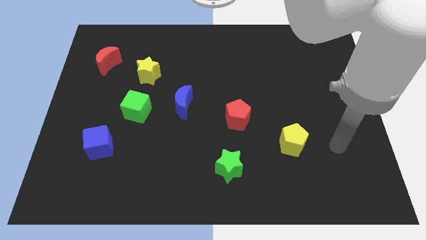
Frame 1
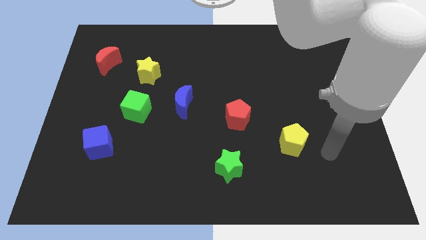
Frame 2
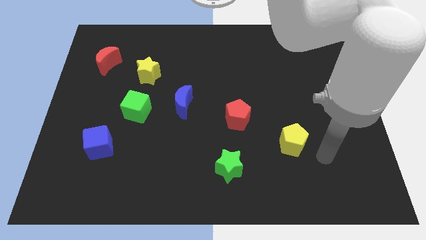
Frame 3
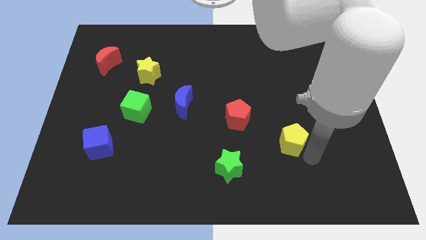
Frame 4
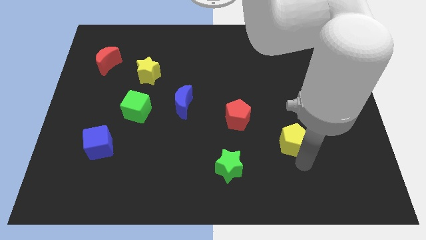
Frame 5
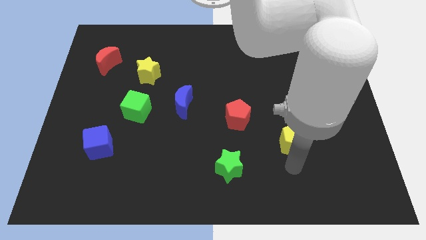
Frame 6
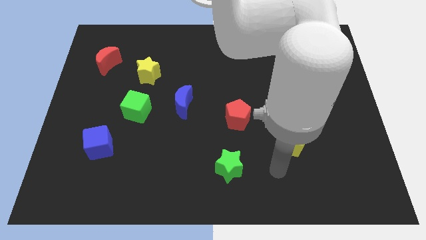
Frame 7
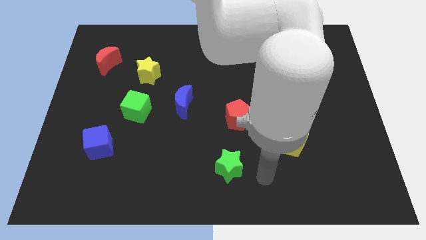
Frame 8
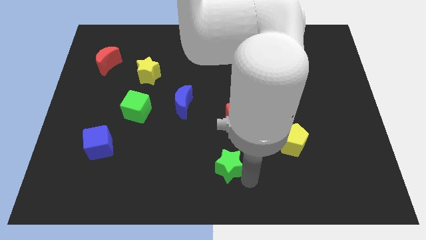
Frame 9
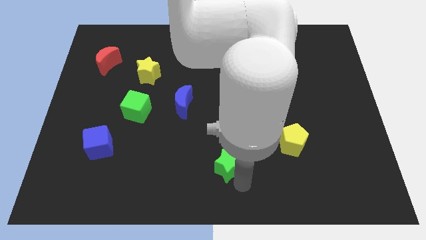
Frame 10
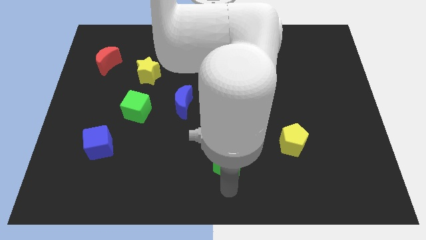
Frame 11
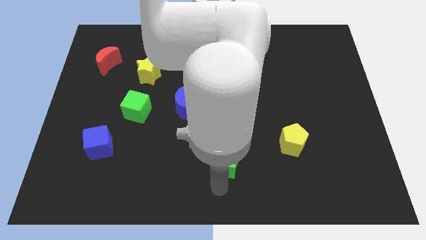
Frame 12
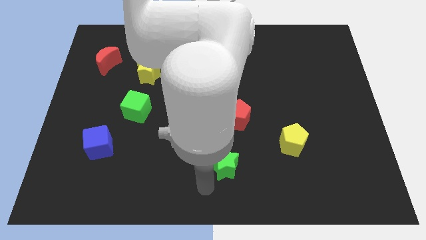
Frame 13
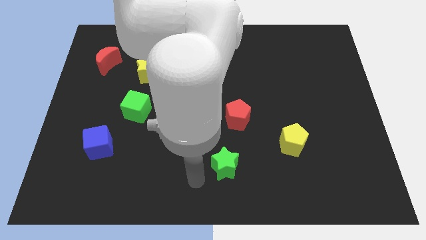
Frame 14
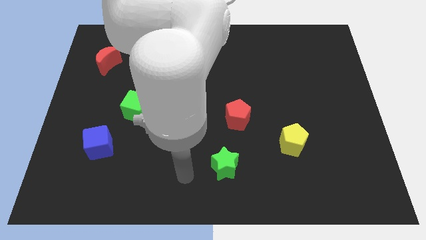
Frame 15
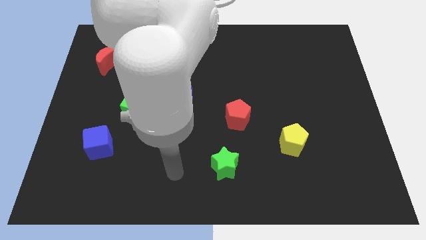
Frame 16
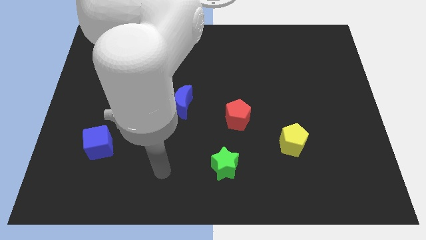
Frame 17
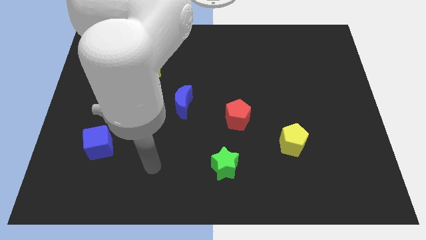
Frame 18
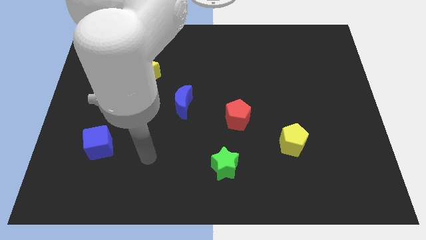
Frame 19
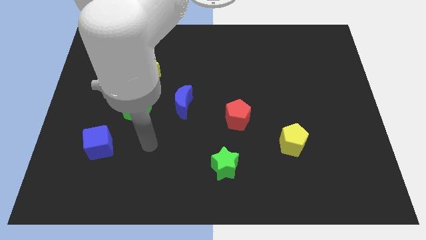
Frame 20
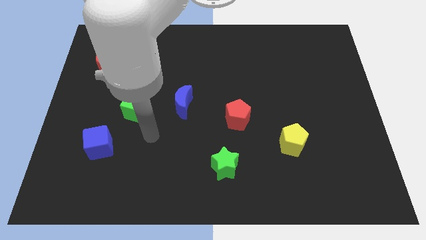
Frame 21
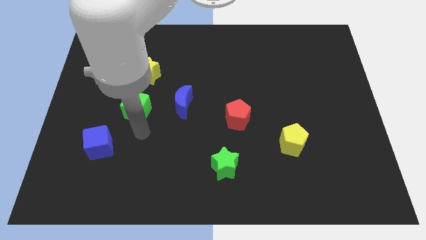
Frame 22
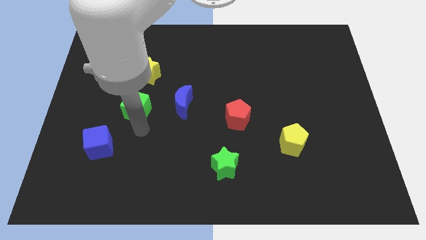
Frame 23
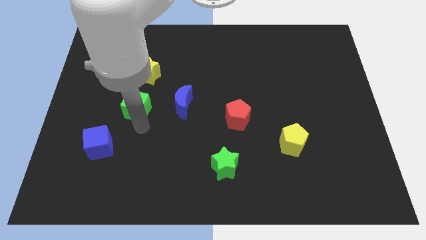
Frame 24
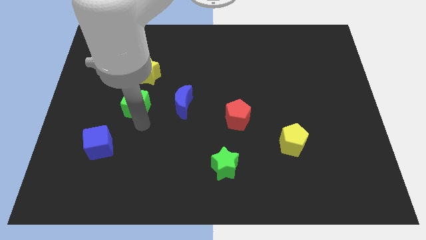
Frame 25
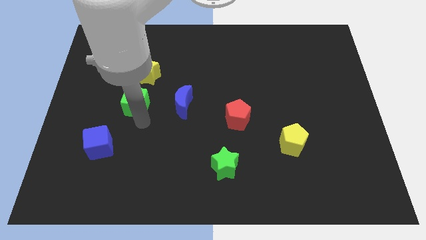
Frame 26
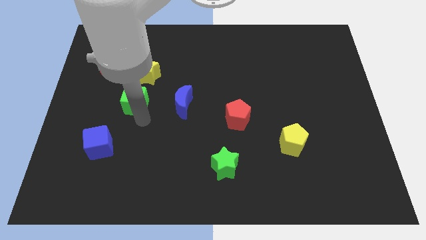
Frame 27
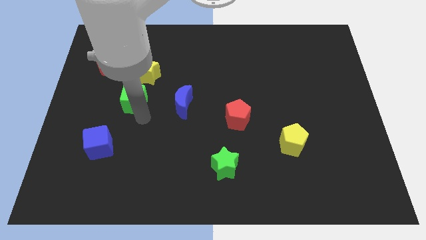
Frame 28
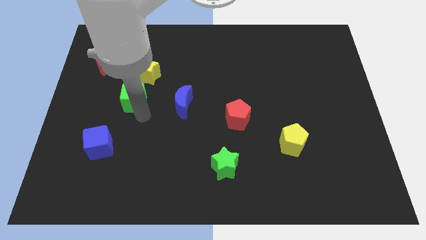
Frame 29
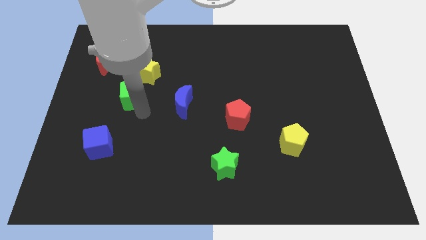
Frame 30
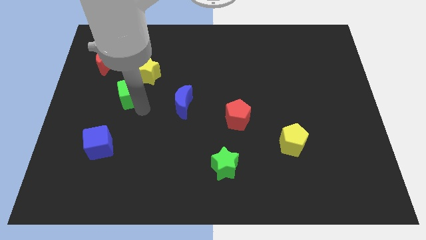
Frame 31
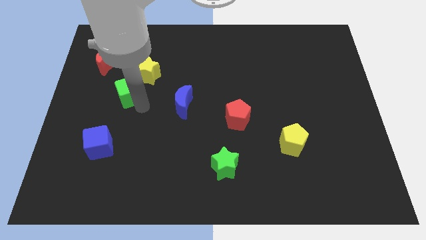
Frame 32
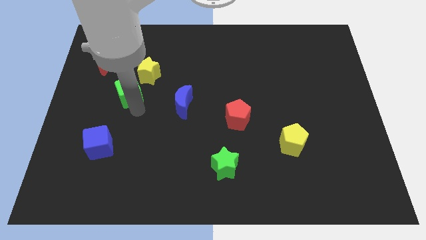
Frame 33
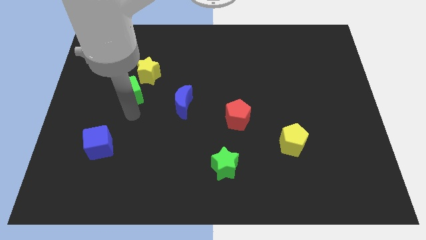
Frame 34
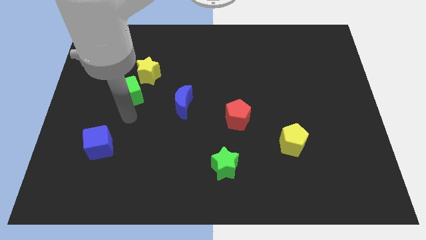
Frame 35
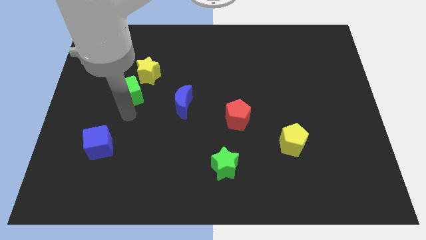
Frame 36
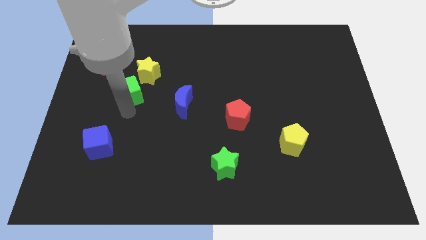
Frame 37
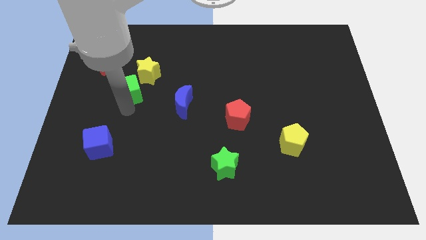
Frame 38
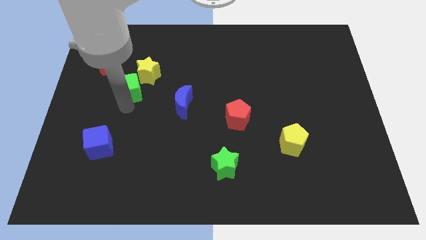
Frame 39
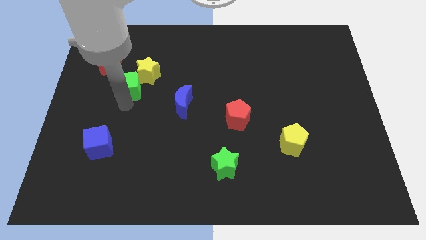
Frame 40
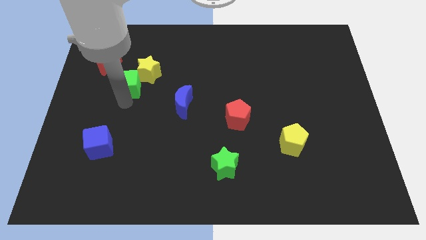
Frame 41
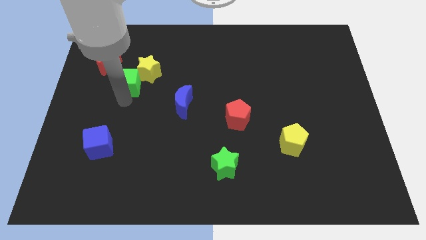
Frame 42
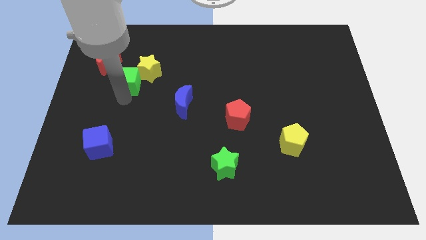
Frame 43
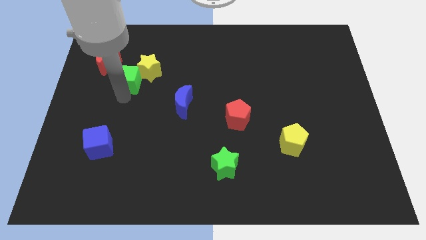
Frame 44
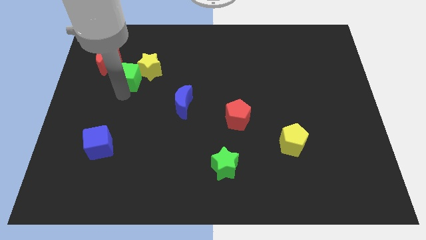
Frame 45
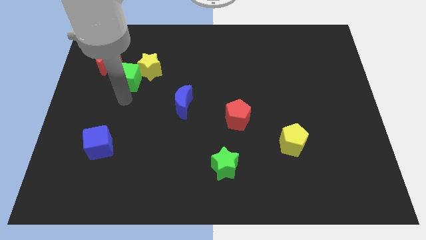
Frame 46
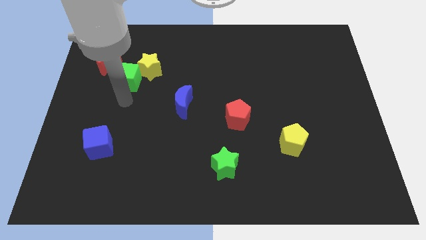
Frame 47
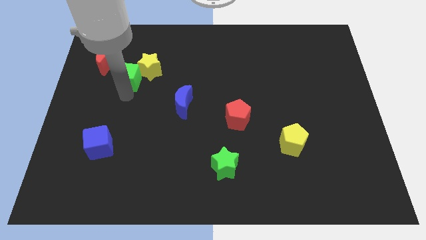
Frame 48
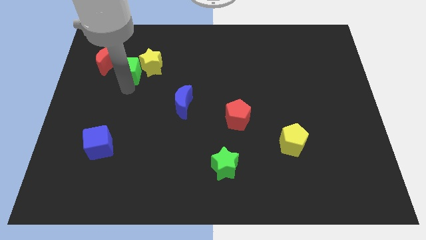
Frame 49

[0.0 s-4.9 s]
put the green cube right of the red moon

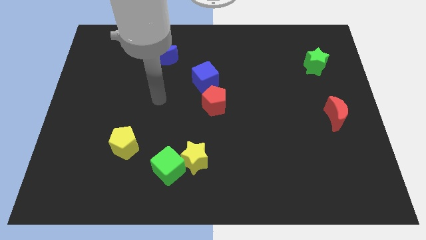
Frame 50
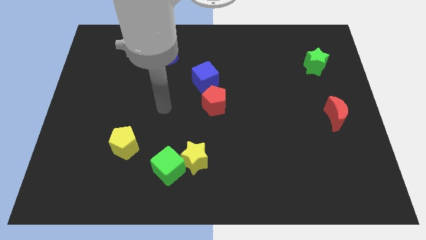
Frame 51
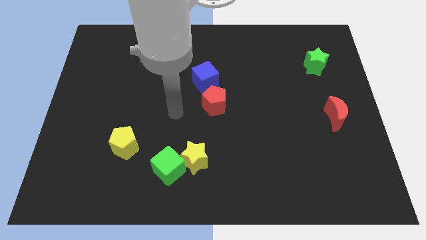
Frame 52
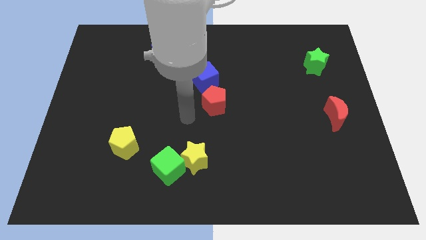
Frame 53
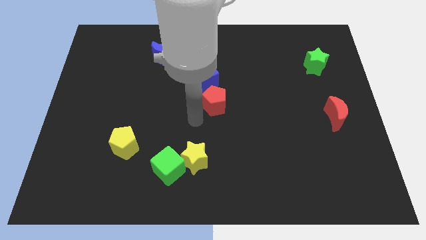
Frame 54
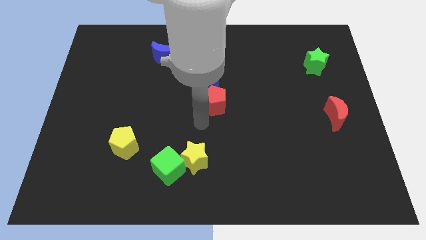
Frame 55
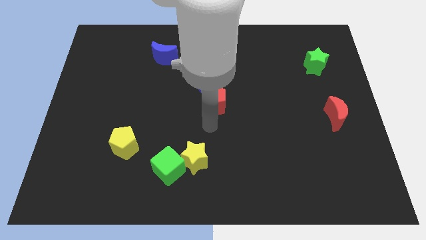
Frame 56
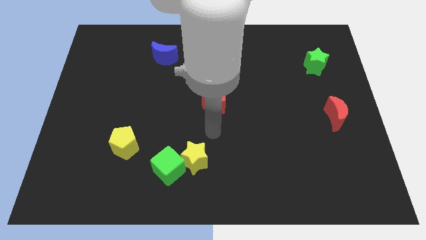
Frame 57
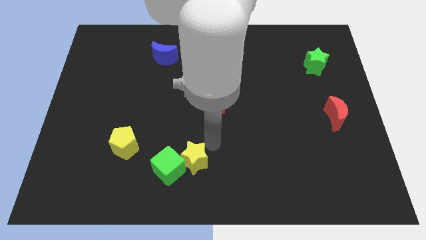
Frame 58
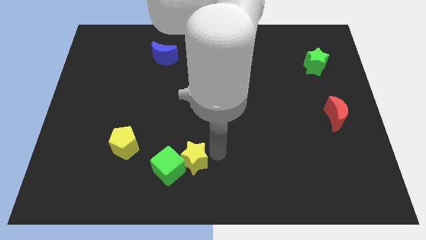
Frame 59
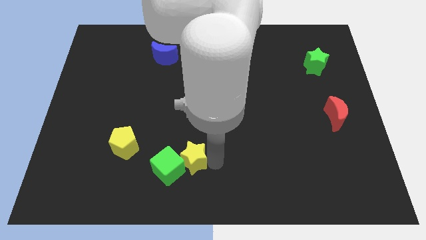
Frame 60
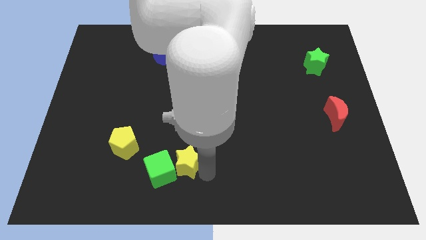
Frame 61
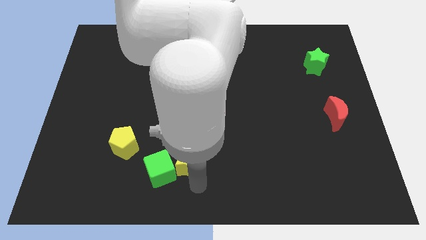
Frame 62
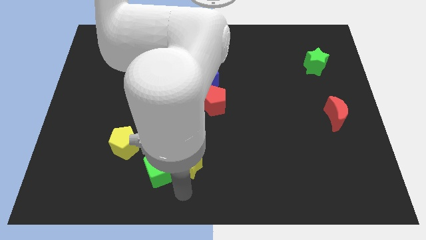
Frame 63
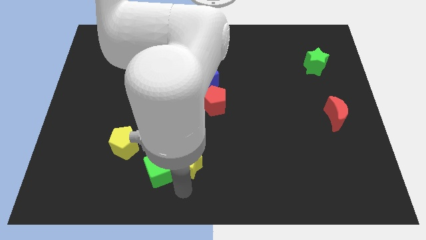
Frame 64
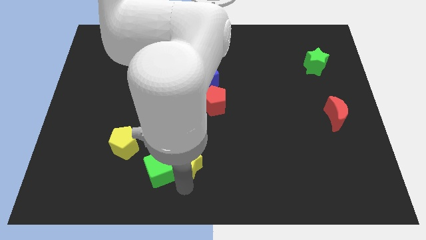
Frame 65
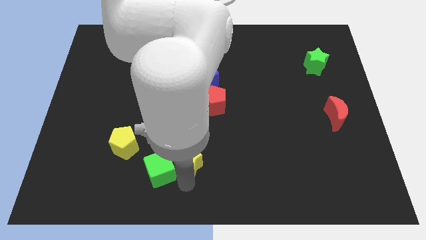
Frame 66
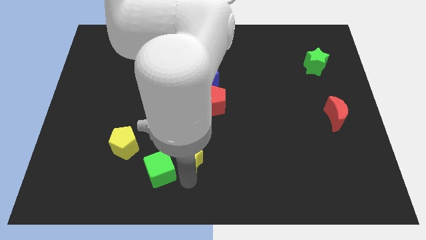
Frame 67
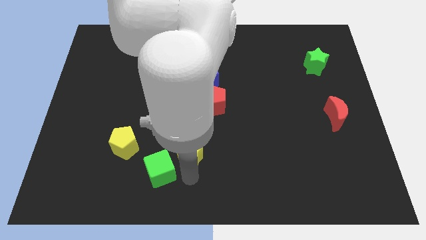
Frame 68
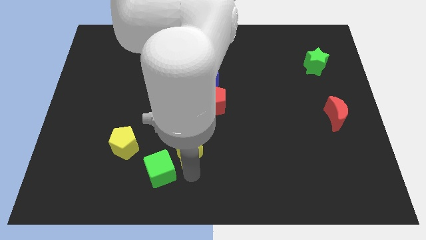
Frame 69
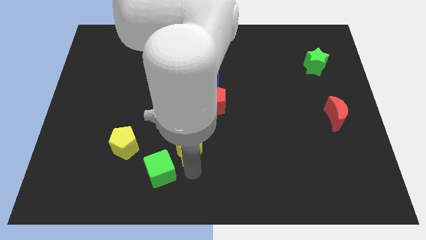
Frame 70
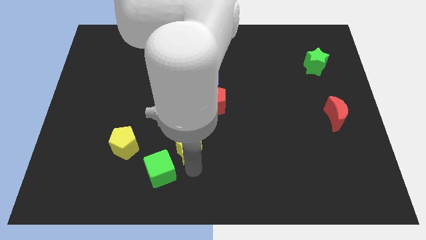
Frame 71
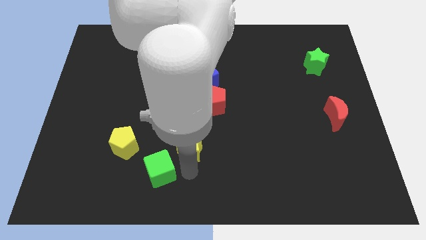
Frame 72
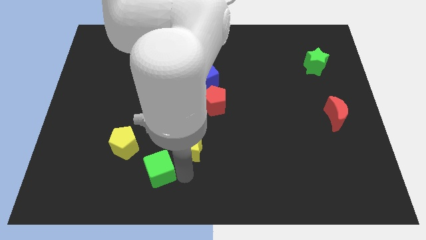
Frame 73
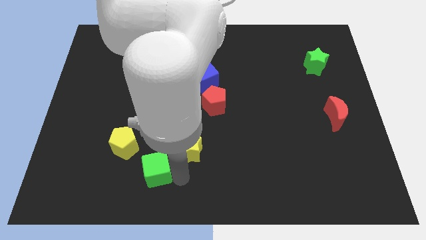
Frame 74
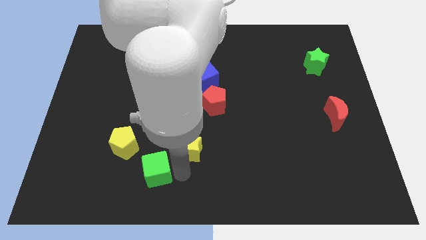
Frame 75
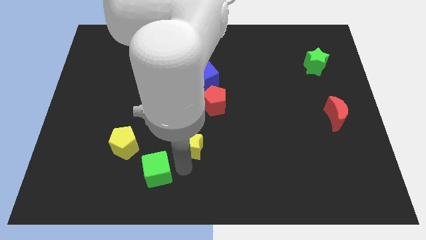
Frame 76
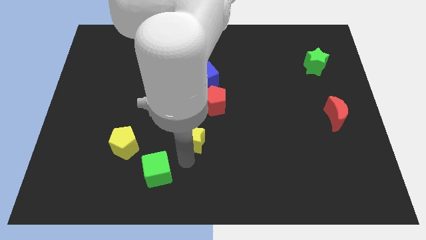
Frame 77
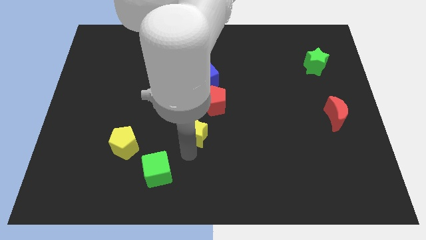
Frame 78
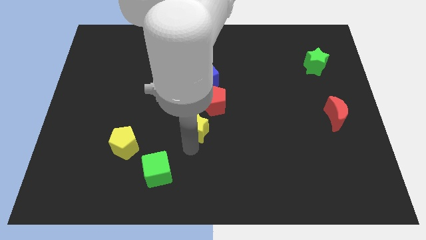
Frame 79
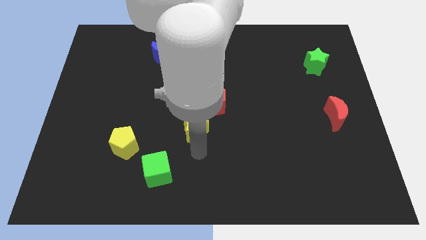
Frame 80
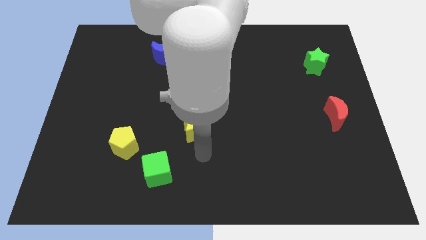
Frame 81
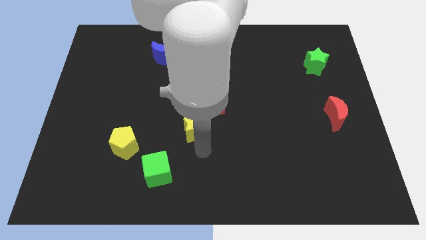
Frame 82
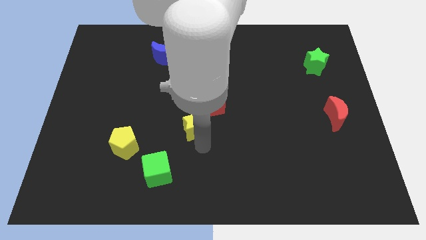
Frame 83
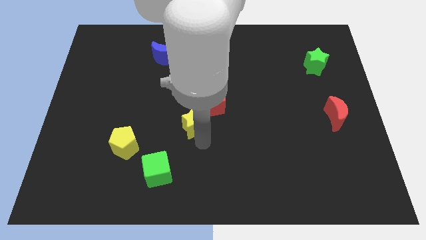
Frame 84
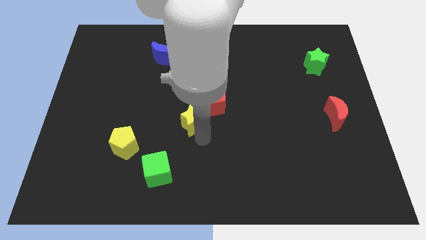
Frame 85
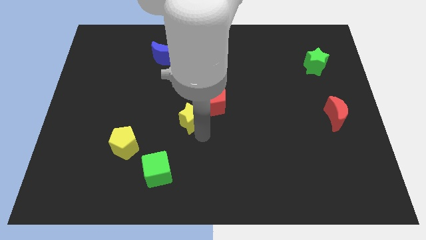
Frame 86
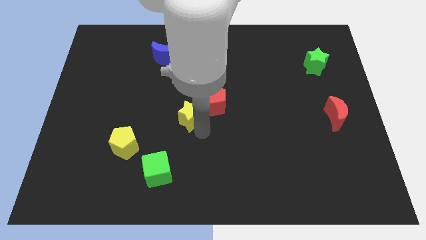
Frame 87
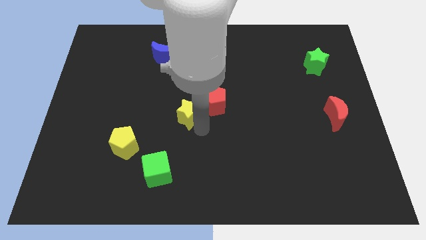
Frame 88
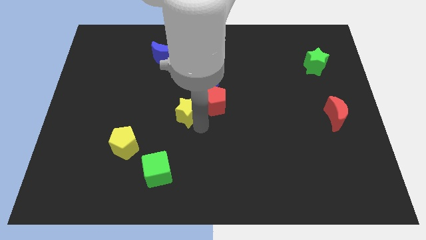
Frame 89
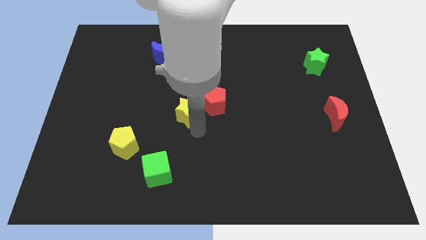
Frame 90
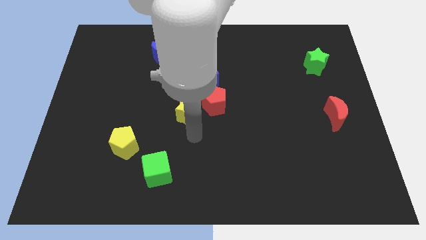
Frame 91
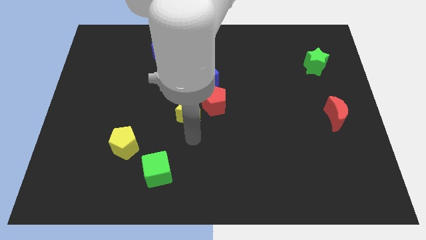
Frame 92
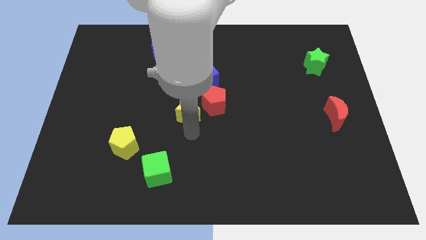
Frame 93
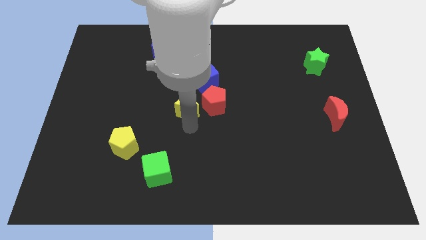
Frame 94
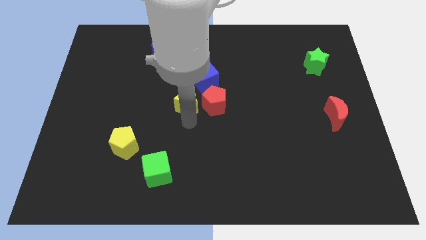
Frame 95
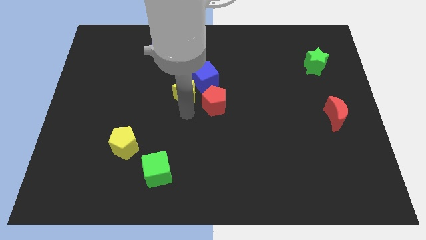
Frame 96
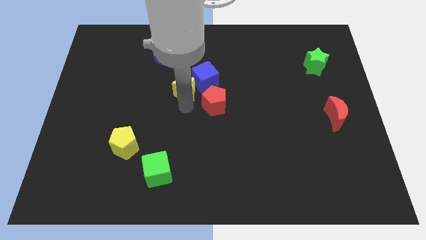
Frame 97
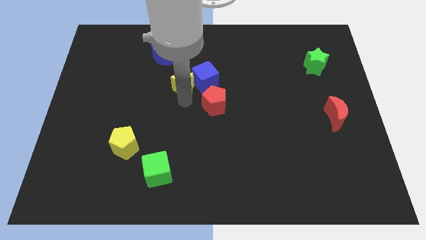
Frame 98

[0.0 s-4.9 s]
move the yellow star to the bottom right side of the blue moon
